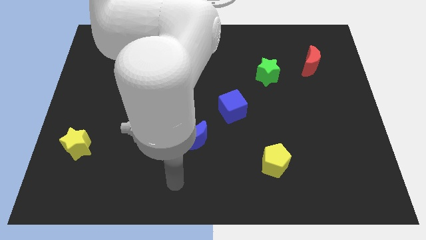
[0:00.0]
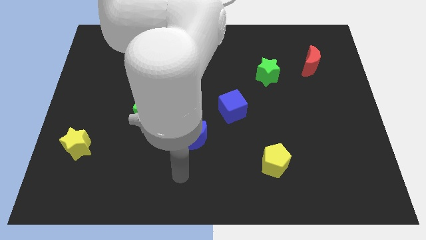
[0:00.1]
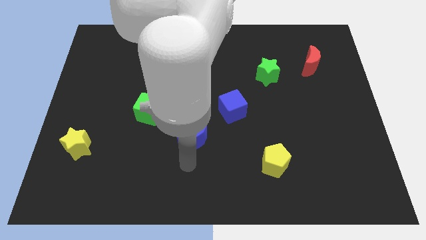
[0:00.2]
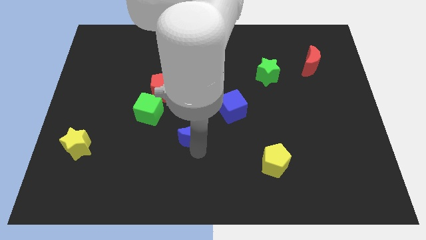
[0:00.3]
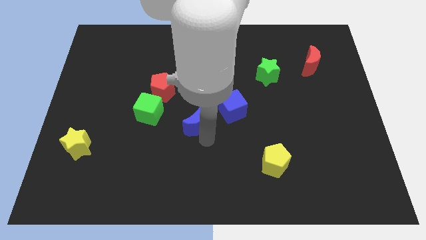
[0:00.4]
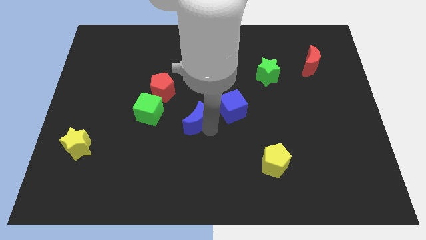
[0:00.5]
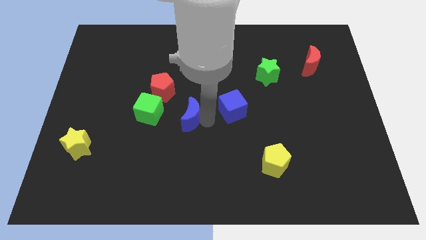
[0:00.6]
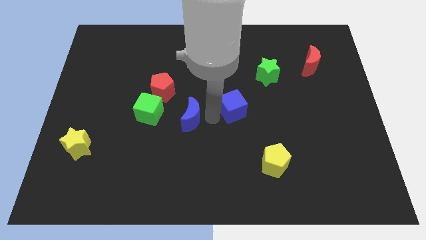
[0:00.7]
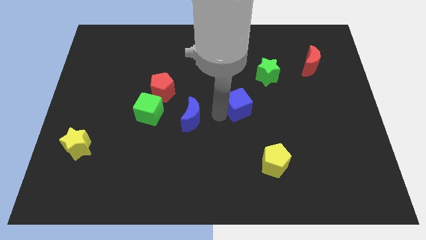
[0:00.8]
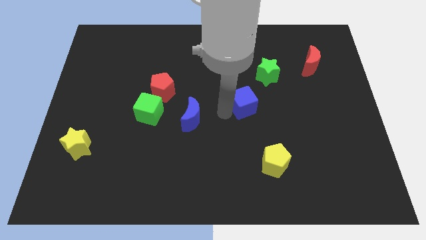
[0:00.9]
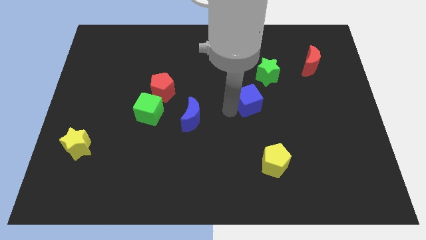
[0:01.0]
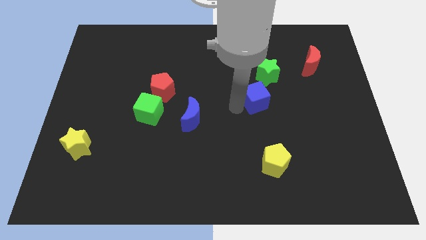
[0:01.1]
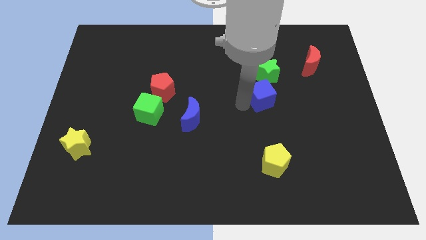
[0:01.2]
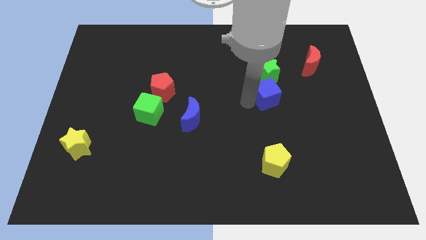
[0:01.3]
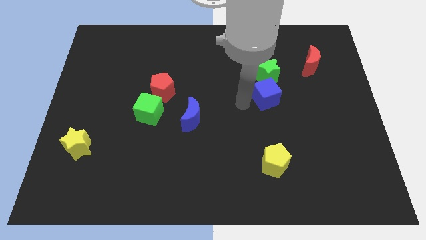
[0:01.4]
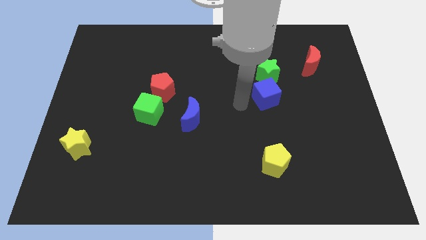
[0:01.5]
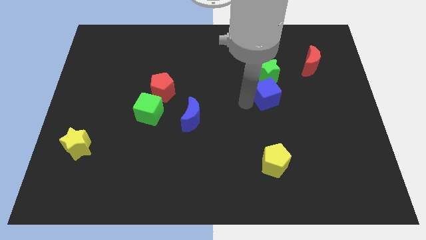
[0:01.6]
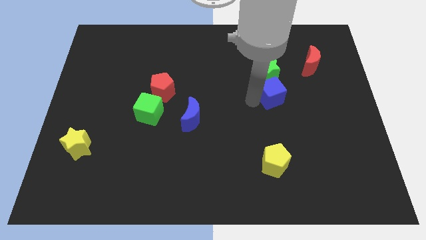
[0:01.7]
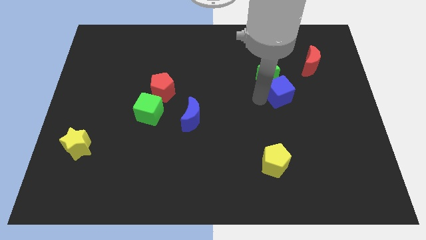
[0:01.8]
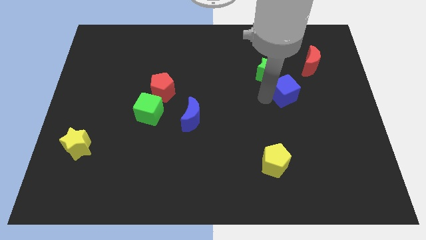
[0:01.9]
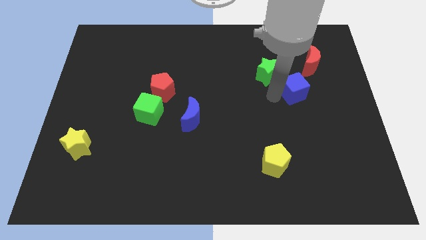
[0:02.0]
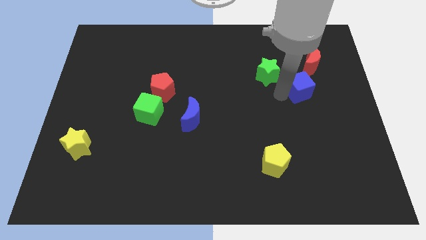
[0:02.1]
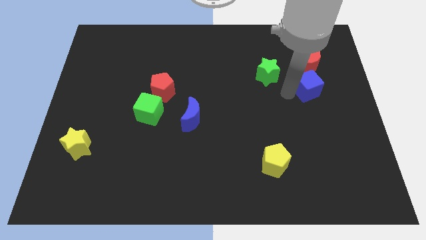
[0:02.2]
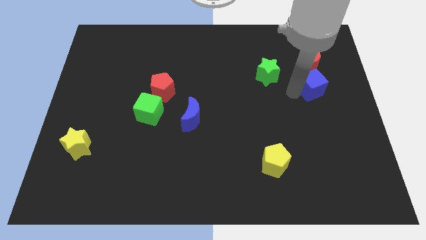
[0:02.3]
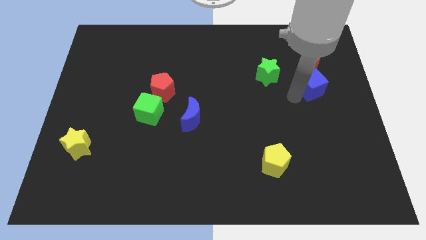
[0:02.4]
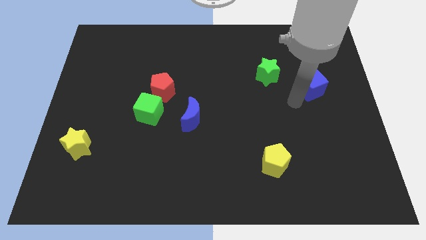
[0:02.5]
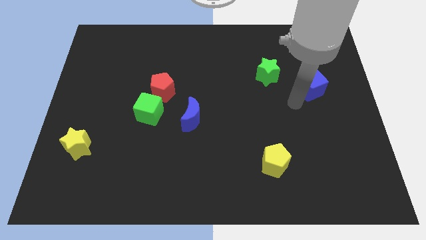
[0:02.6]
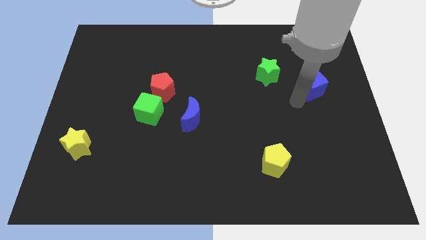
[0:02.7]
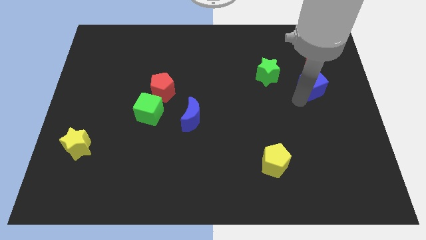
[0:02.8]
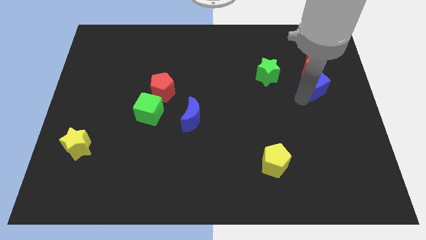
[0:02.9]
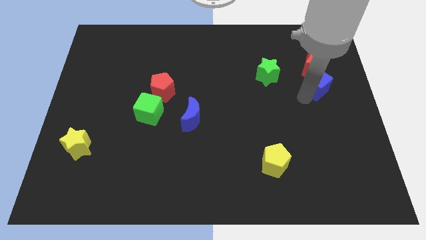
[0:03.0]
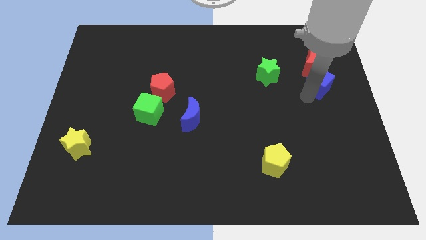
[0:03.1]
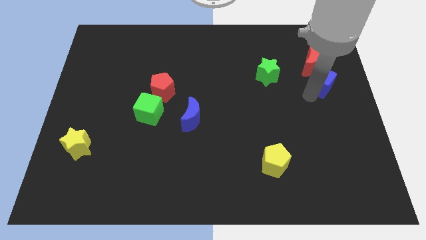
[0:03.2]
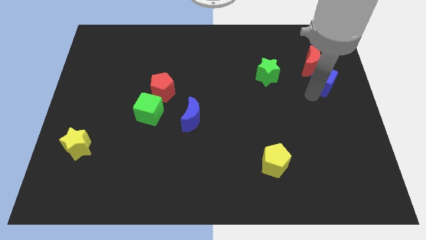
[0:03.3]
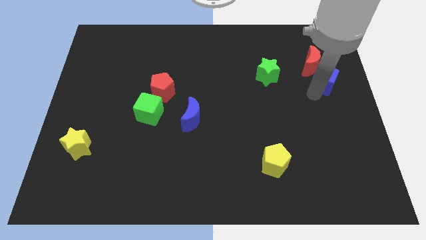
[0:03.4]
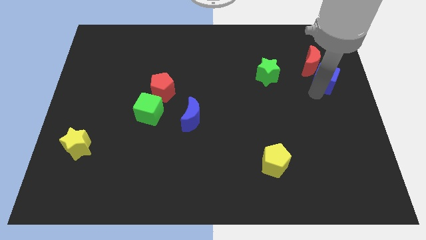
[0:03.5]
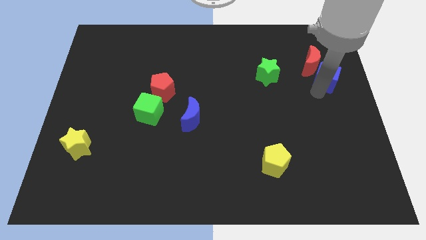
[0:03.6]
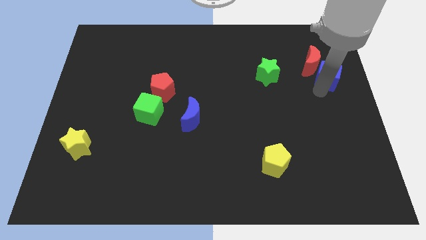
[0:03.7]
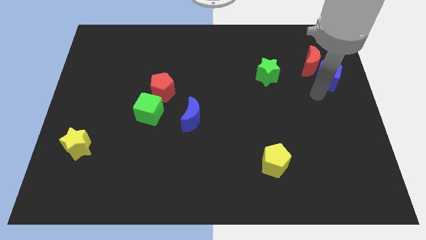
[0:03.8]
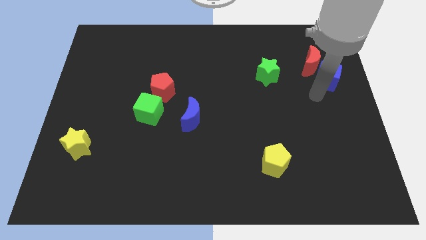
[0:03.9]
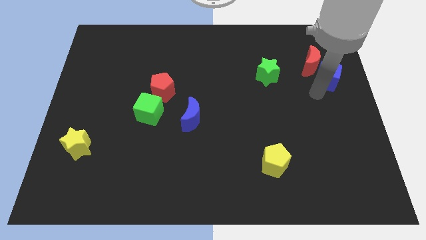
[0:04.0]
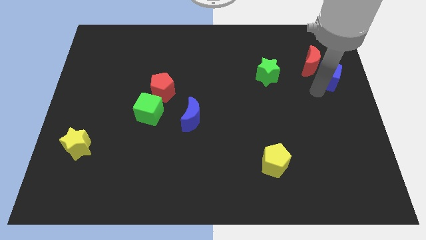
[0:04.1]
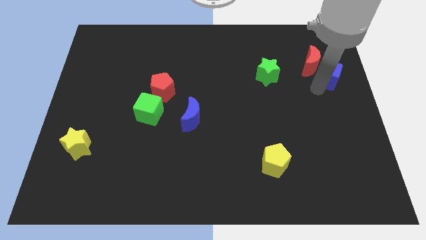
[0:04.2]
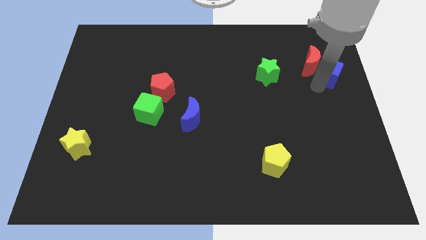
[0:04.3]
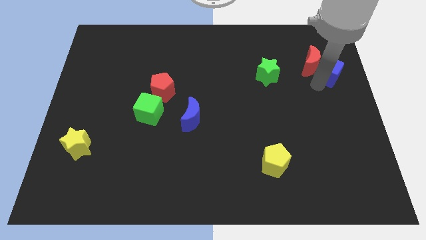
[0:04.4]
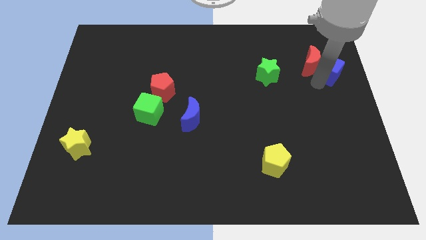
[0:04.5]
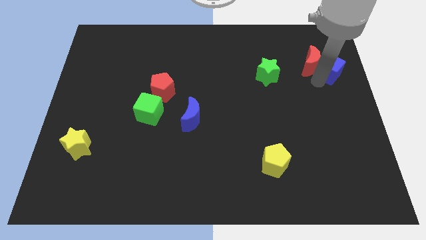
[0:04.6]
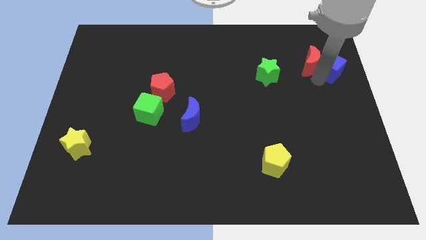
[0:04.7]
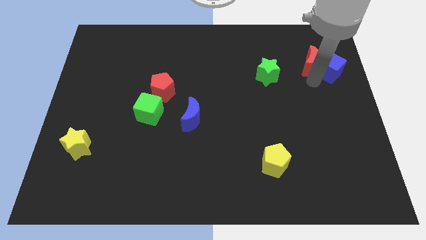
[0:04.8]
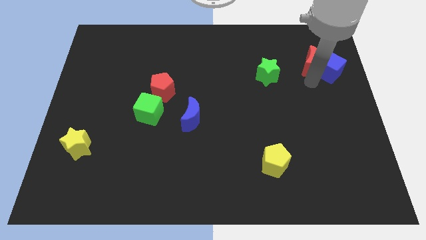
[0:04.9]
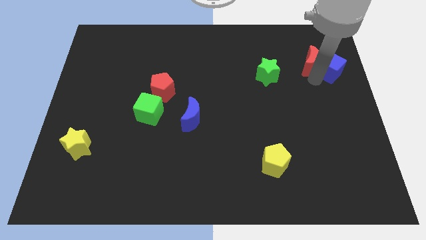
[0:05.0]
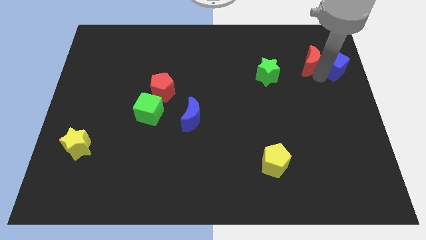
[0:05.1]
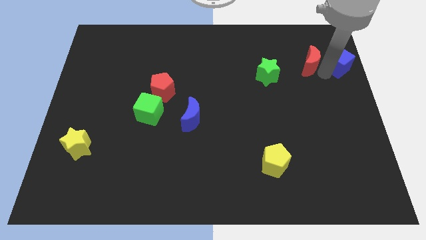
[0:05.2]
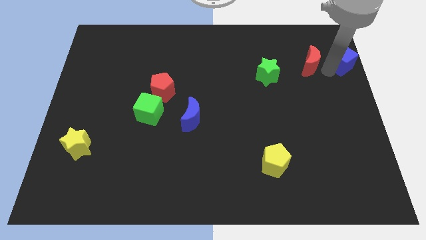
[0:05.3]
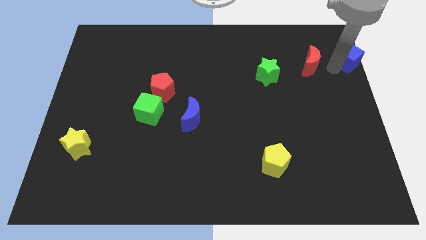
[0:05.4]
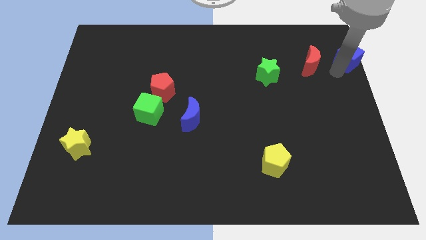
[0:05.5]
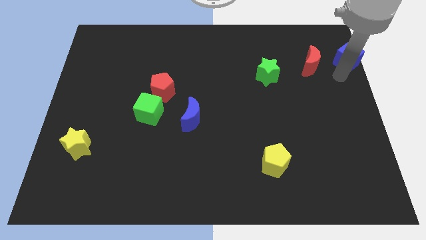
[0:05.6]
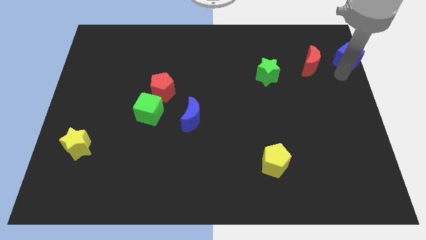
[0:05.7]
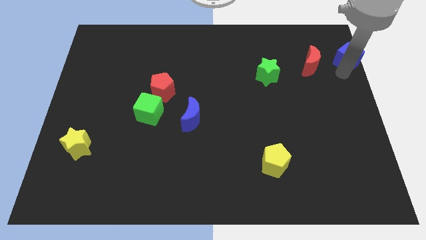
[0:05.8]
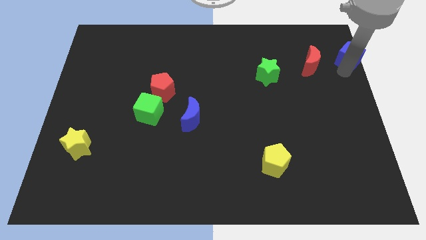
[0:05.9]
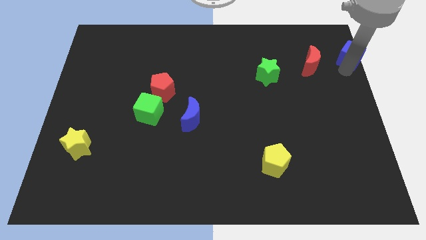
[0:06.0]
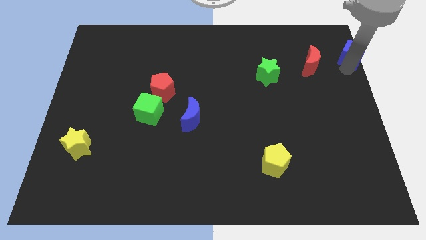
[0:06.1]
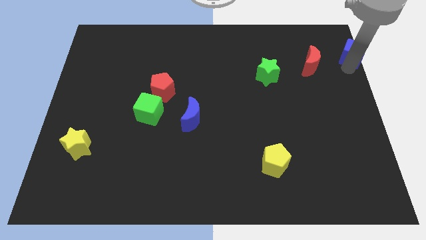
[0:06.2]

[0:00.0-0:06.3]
put the blue cube to the top right

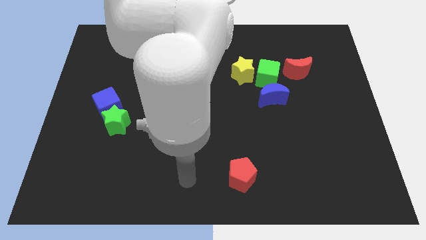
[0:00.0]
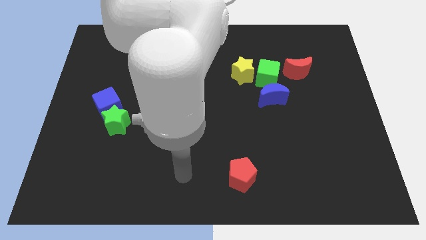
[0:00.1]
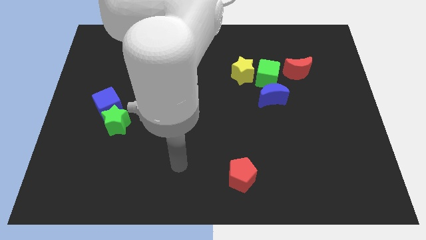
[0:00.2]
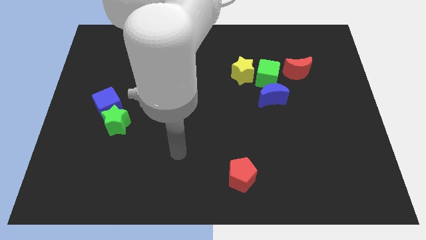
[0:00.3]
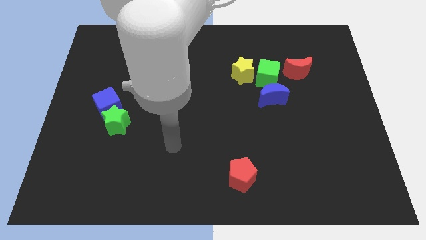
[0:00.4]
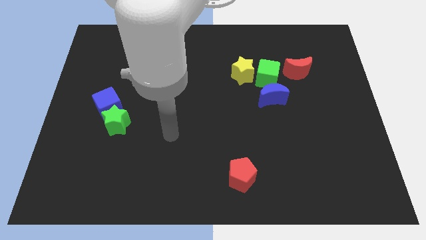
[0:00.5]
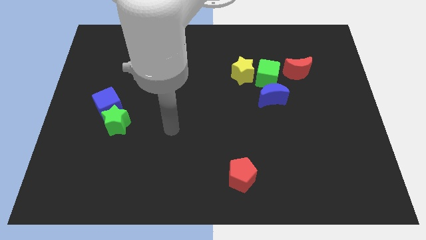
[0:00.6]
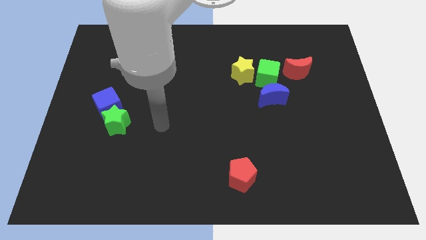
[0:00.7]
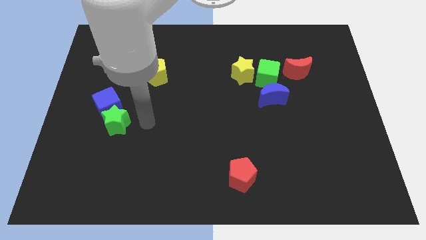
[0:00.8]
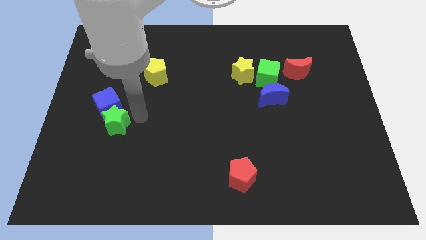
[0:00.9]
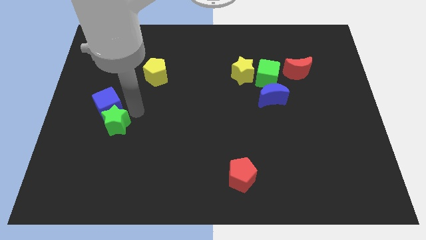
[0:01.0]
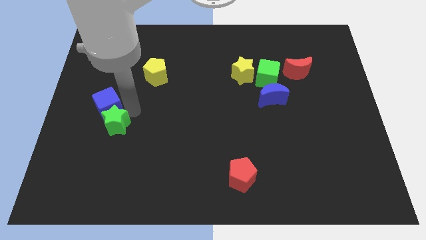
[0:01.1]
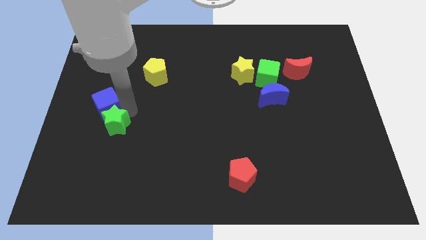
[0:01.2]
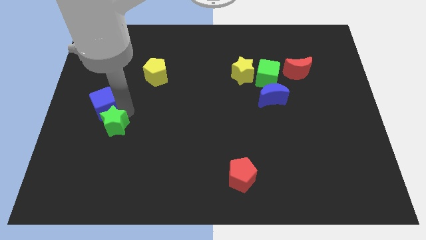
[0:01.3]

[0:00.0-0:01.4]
put the blue cube to the center left
